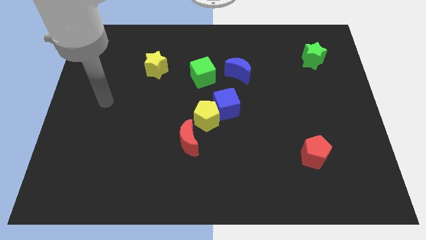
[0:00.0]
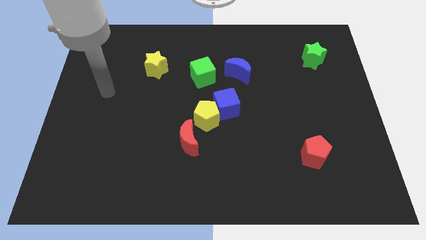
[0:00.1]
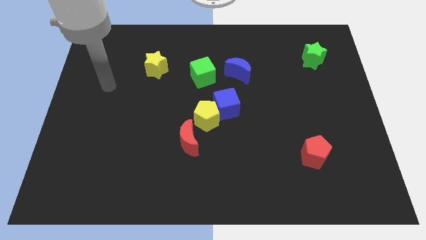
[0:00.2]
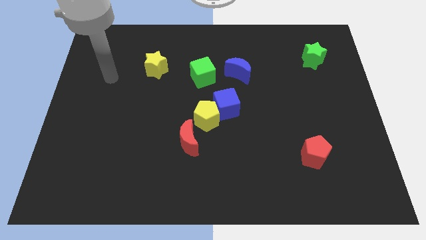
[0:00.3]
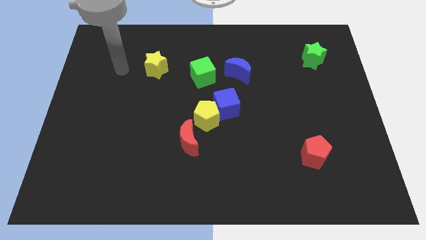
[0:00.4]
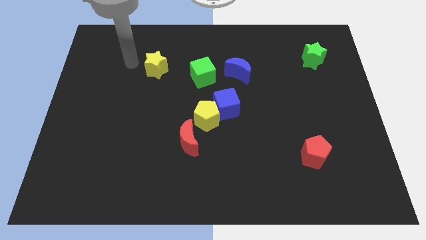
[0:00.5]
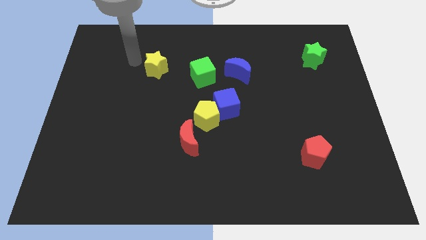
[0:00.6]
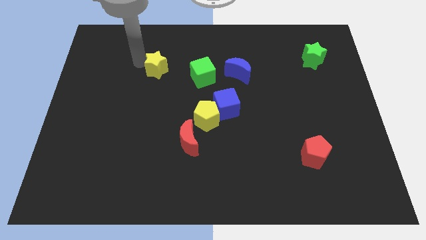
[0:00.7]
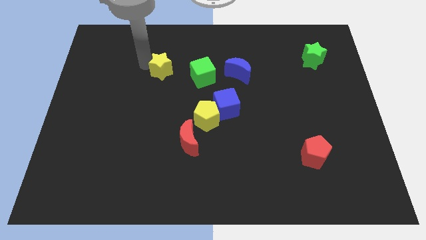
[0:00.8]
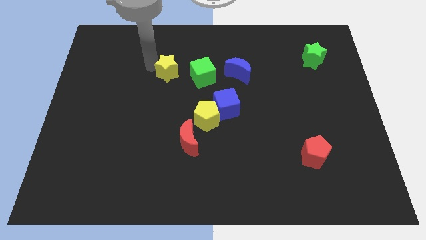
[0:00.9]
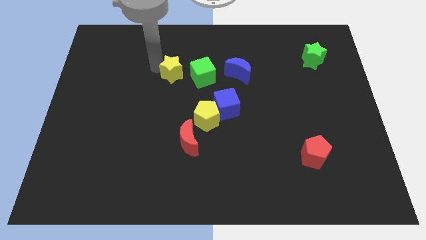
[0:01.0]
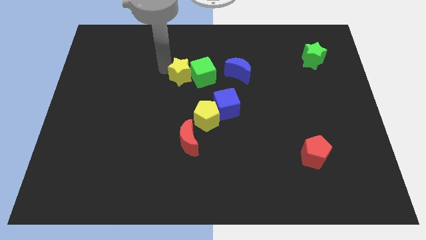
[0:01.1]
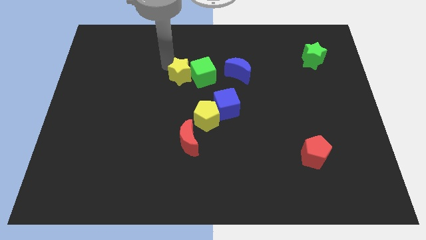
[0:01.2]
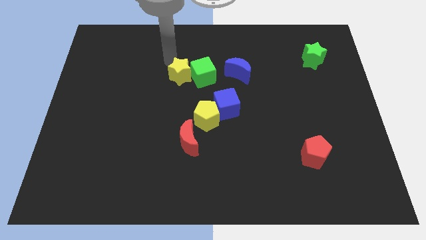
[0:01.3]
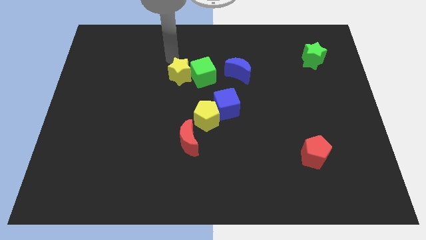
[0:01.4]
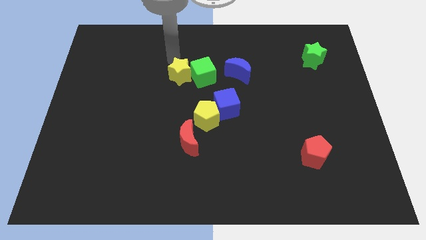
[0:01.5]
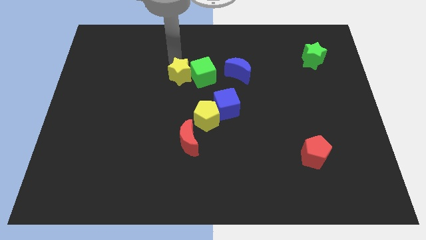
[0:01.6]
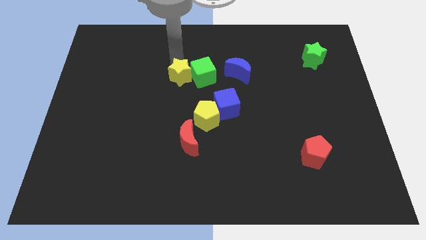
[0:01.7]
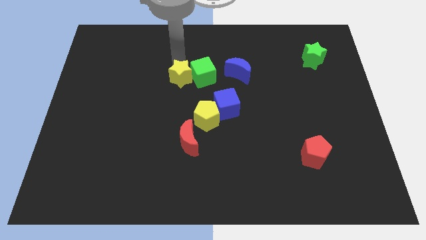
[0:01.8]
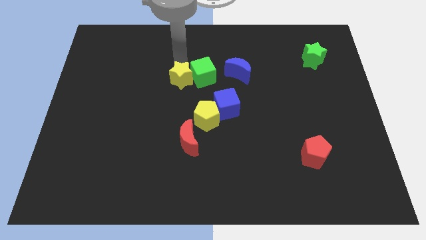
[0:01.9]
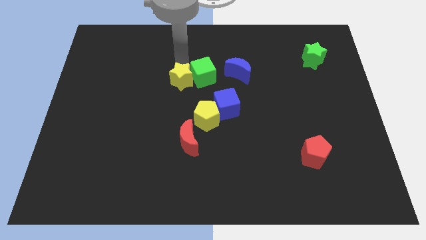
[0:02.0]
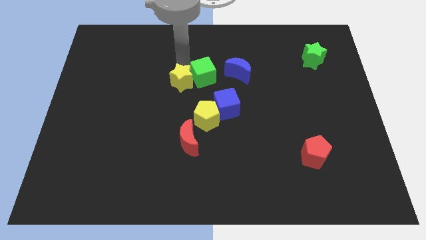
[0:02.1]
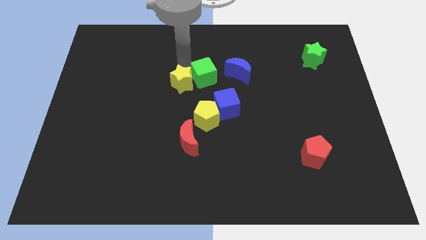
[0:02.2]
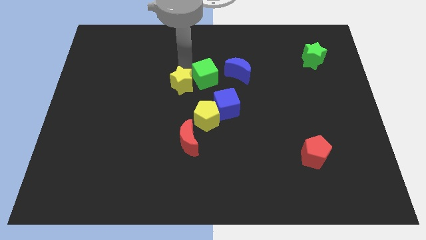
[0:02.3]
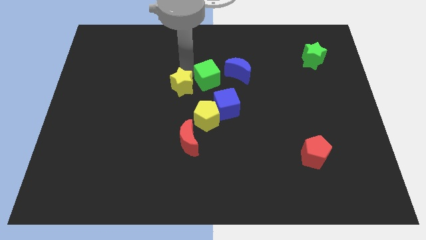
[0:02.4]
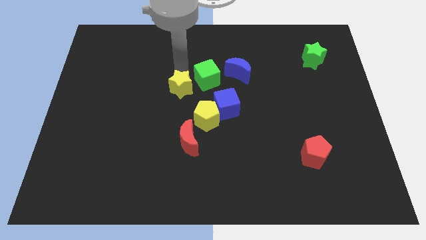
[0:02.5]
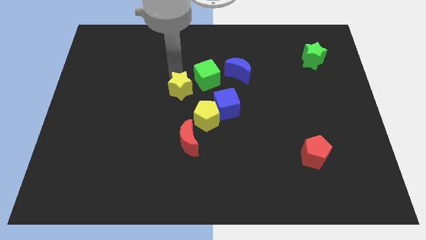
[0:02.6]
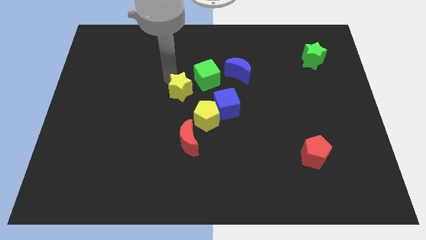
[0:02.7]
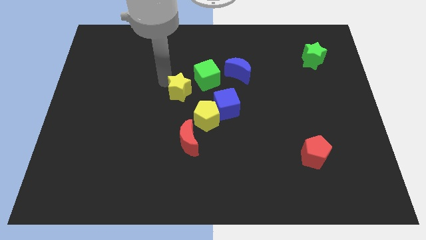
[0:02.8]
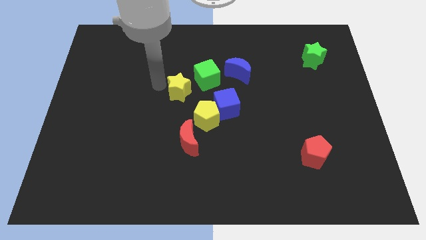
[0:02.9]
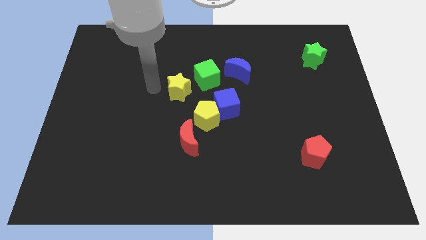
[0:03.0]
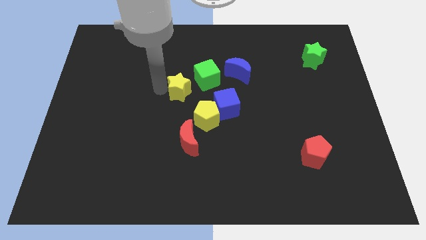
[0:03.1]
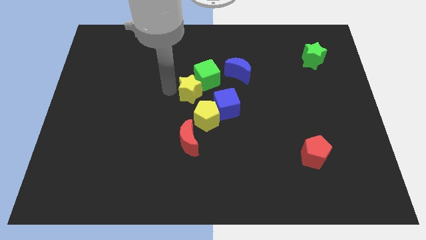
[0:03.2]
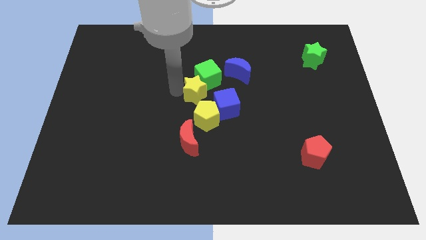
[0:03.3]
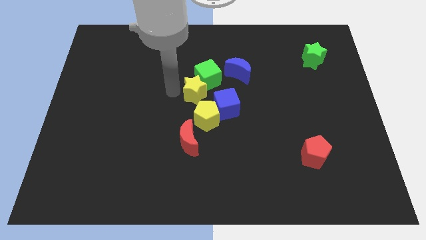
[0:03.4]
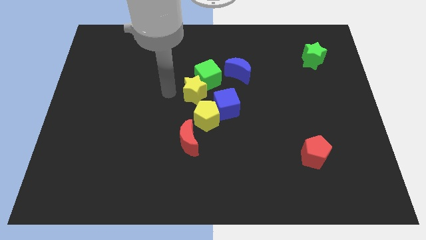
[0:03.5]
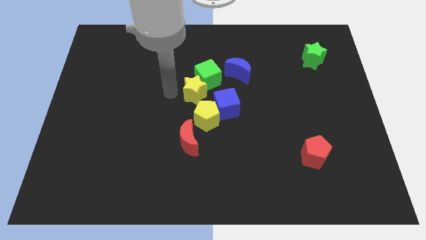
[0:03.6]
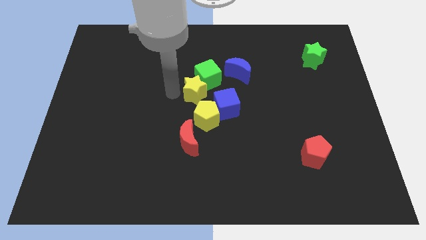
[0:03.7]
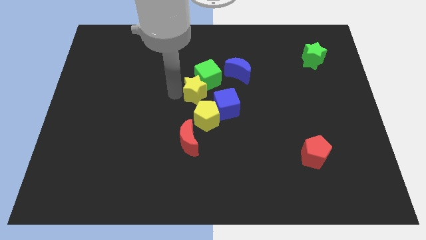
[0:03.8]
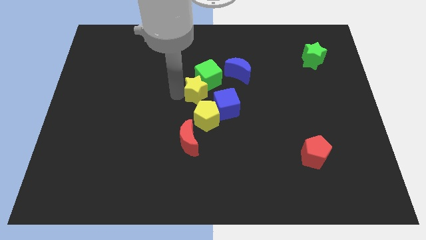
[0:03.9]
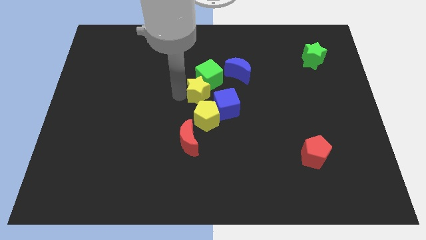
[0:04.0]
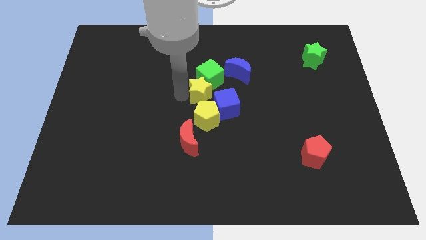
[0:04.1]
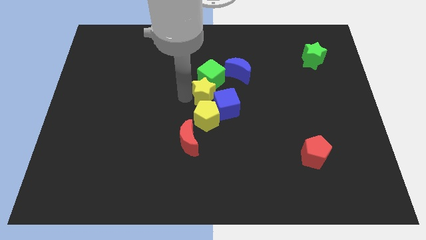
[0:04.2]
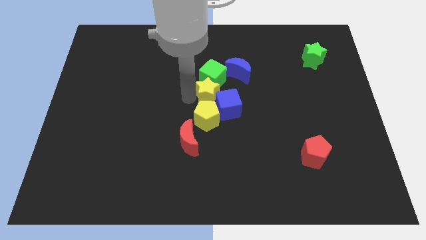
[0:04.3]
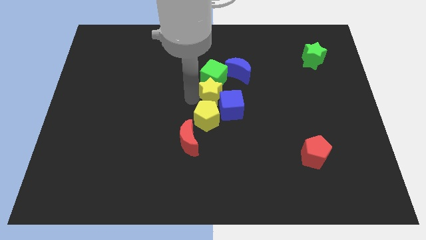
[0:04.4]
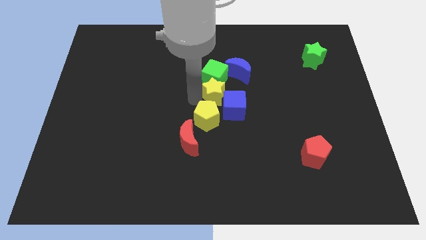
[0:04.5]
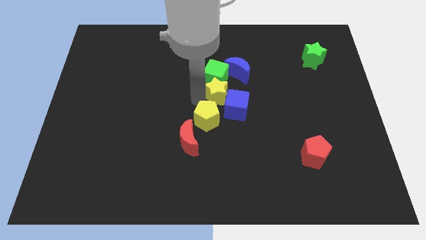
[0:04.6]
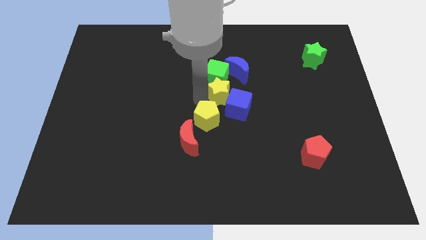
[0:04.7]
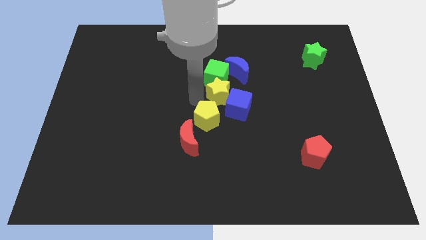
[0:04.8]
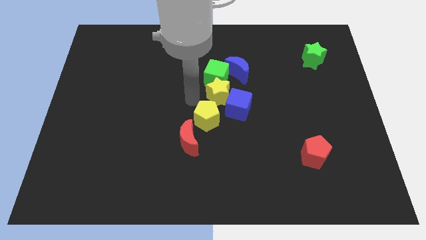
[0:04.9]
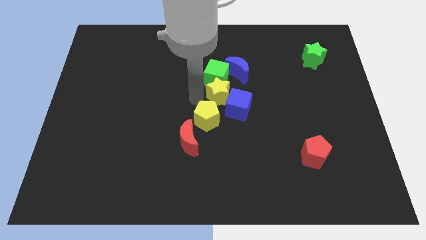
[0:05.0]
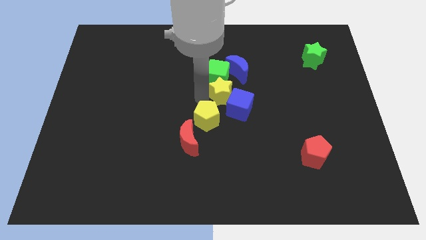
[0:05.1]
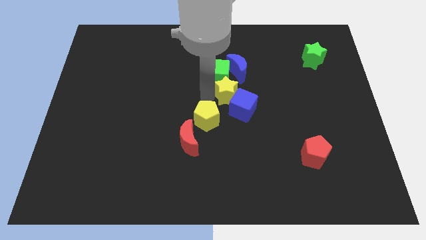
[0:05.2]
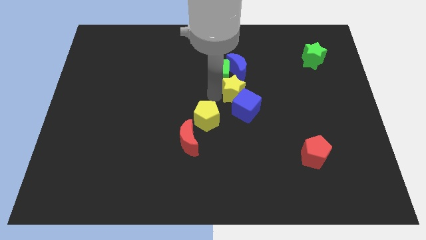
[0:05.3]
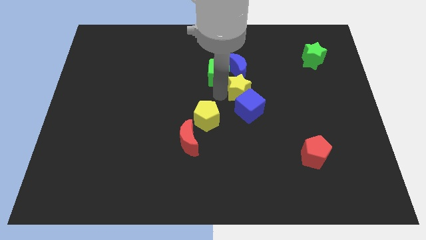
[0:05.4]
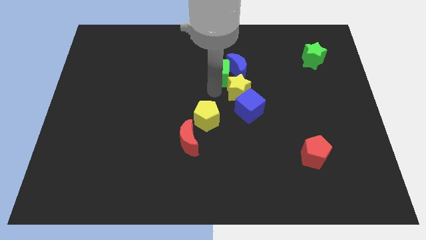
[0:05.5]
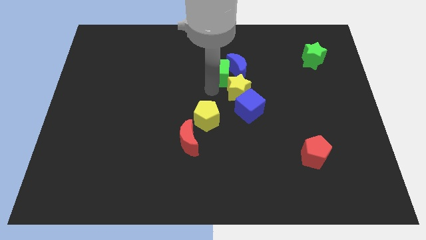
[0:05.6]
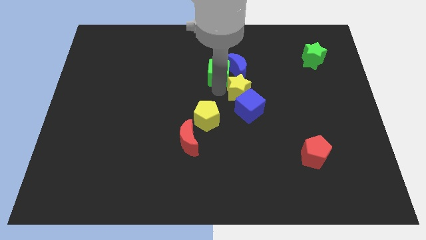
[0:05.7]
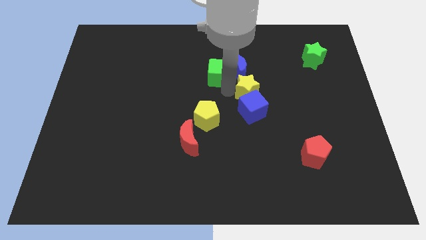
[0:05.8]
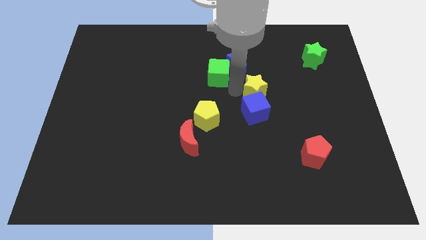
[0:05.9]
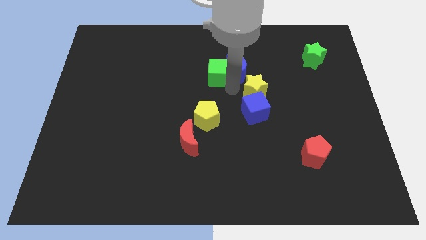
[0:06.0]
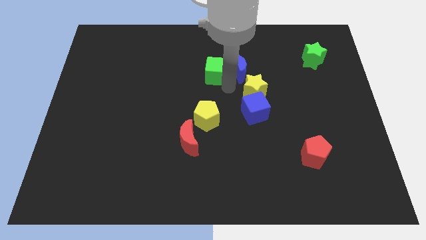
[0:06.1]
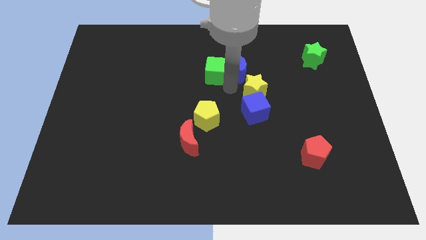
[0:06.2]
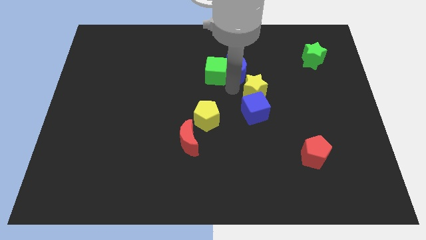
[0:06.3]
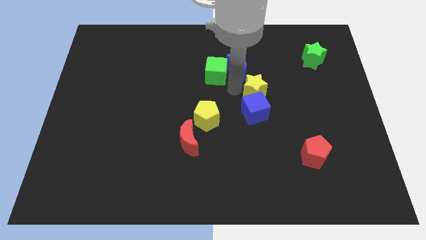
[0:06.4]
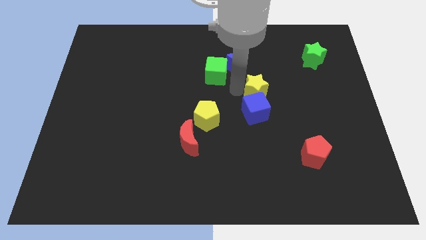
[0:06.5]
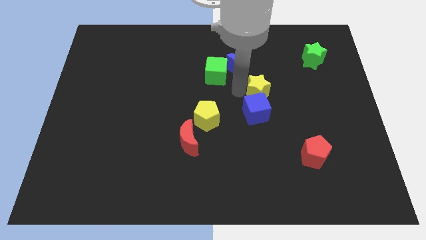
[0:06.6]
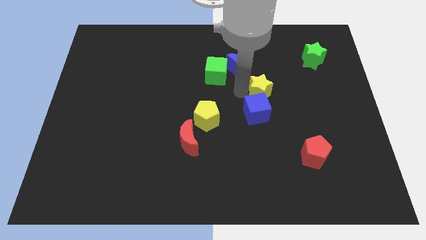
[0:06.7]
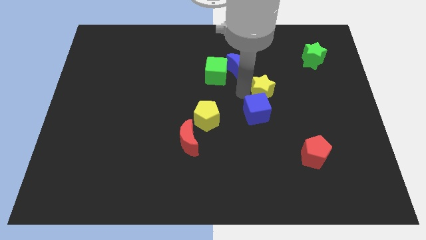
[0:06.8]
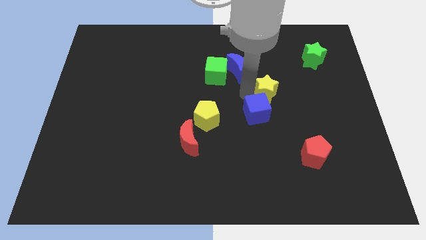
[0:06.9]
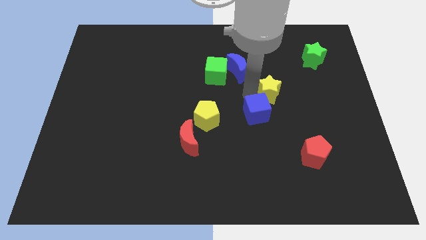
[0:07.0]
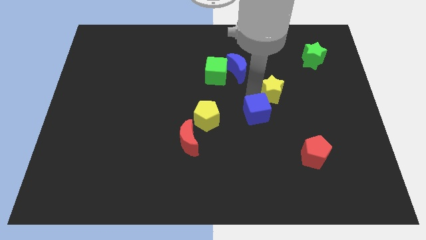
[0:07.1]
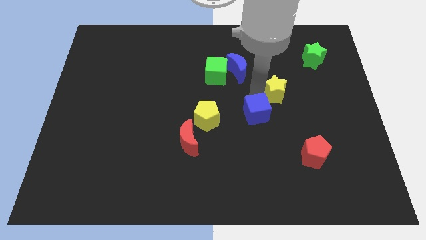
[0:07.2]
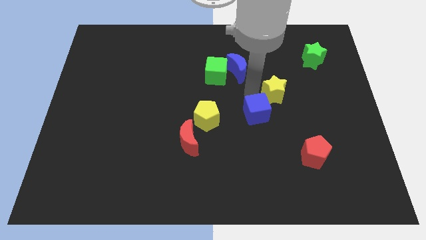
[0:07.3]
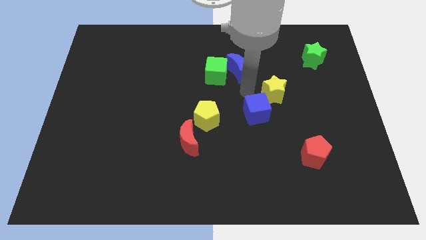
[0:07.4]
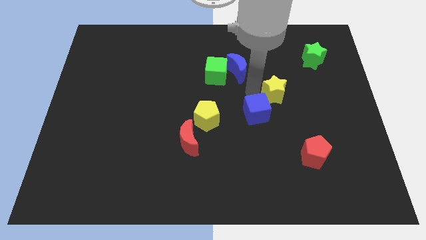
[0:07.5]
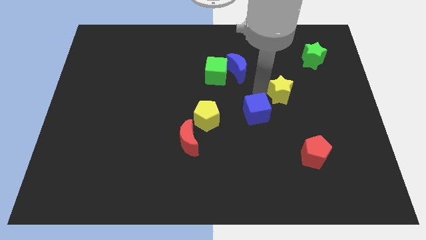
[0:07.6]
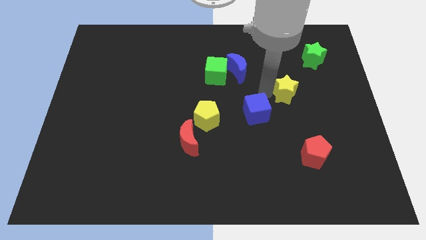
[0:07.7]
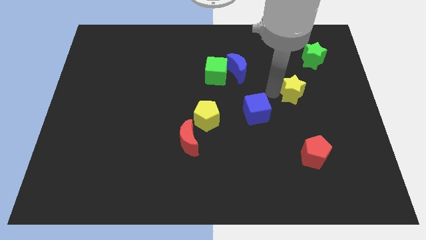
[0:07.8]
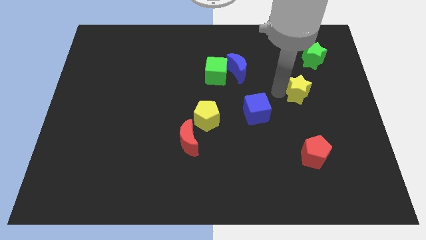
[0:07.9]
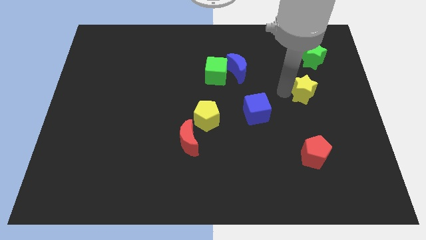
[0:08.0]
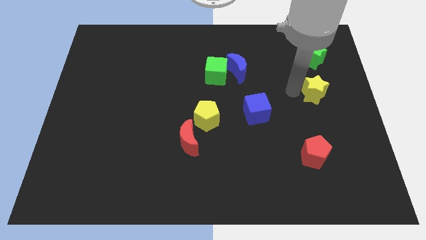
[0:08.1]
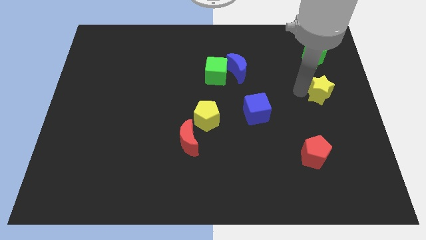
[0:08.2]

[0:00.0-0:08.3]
slide the yellow star to the center right
